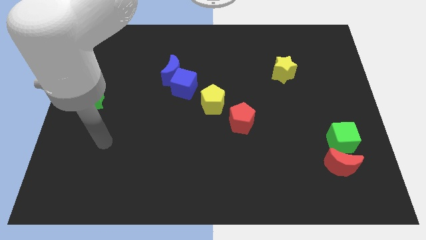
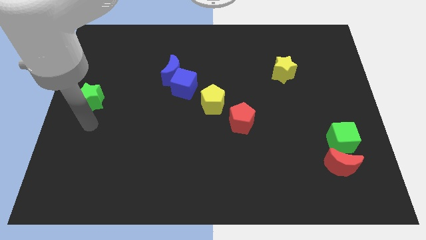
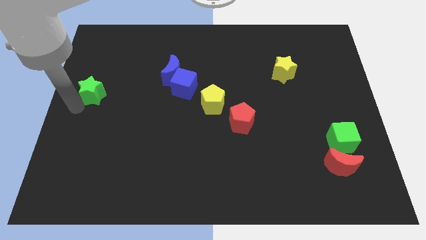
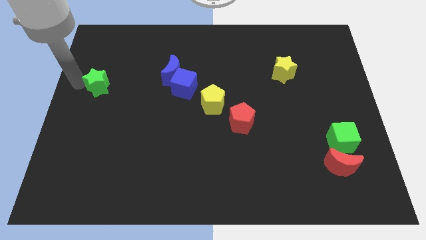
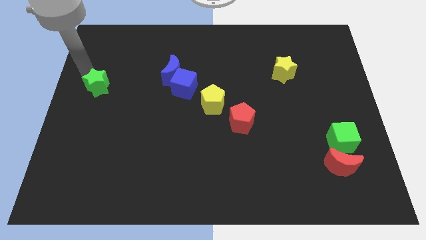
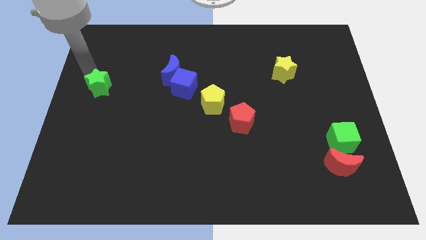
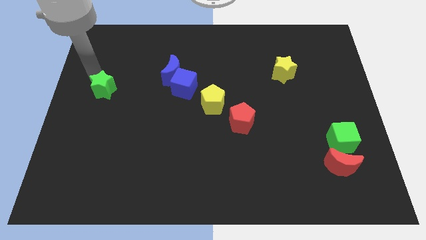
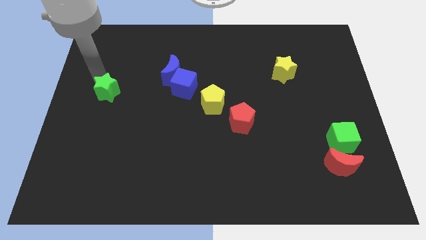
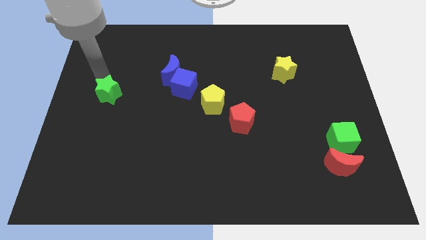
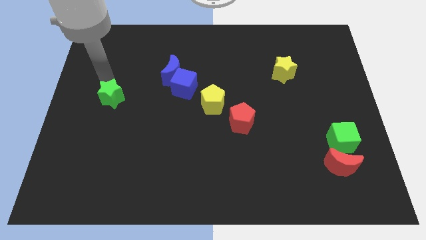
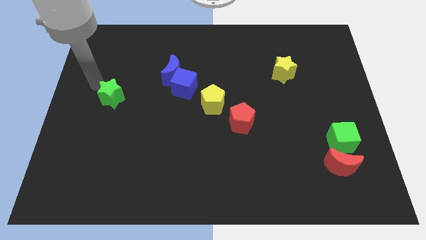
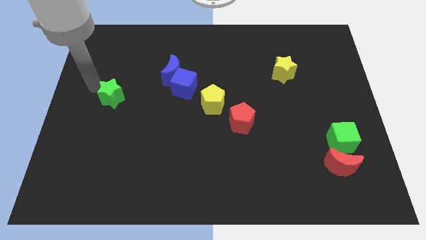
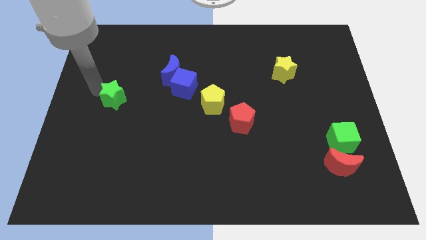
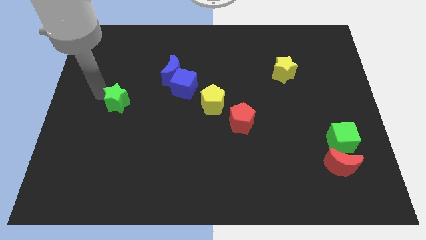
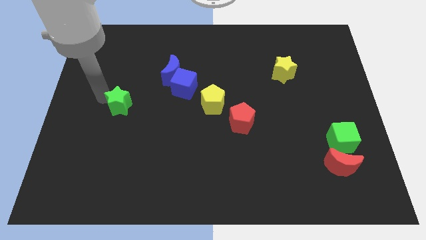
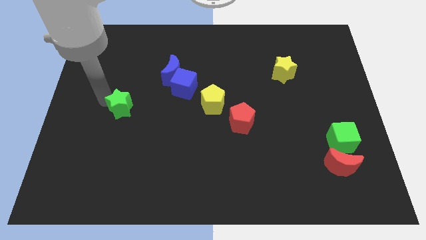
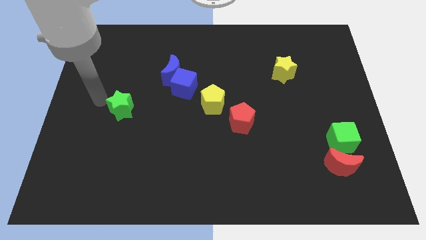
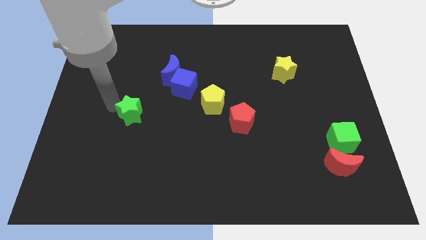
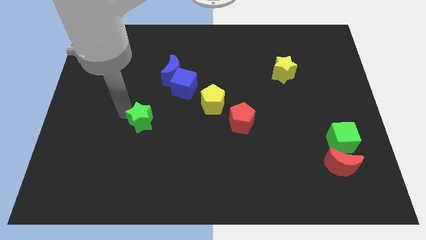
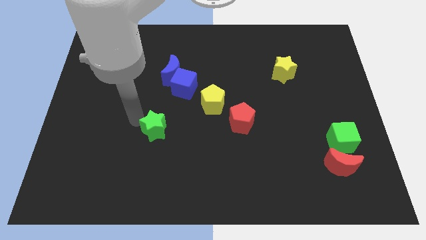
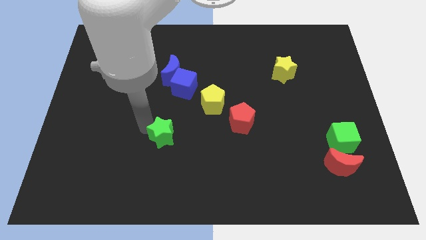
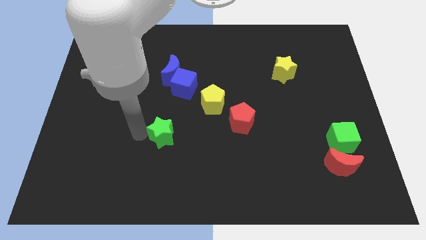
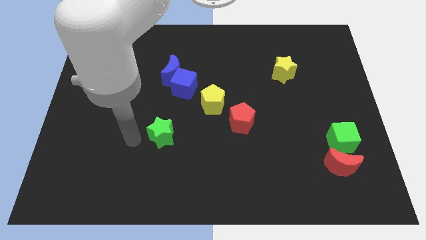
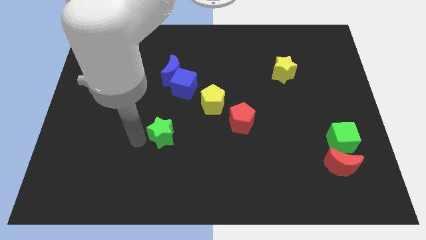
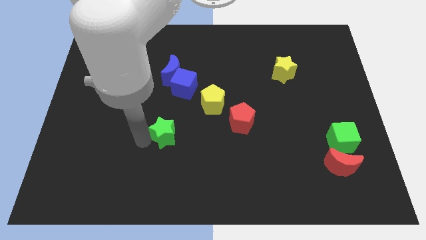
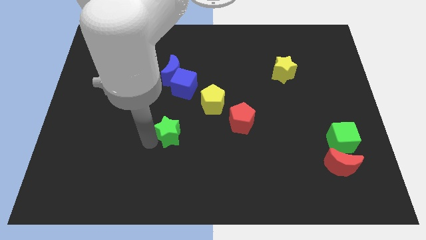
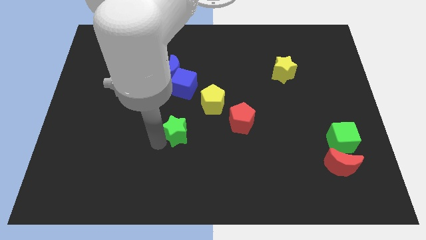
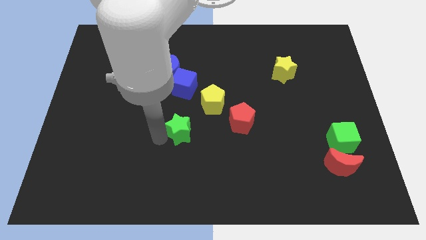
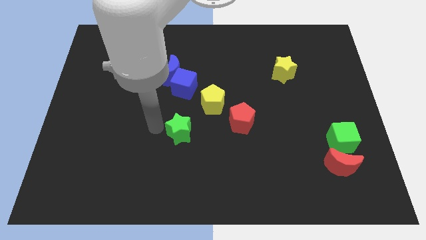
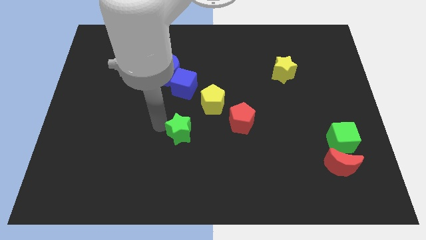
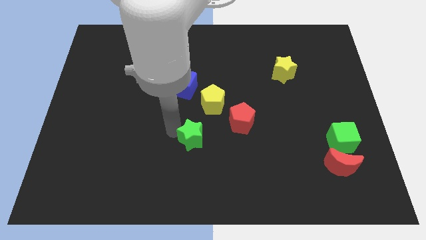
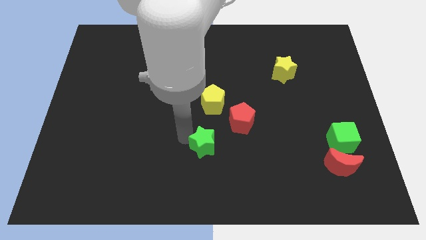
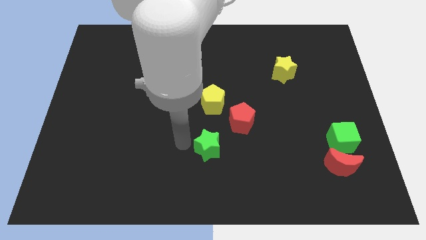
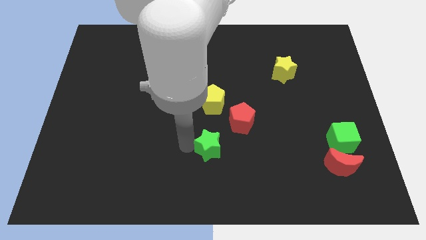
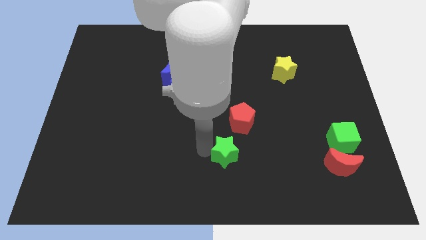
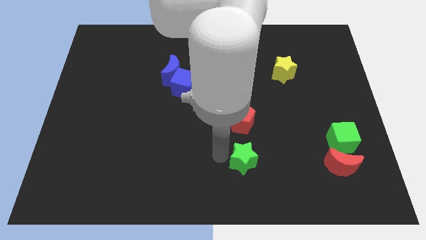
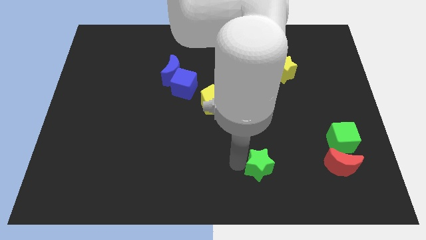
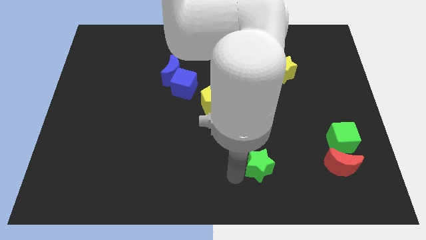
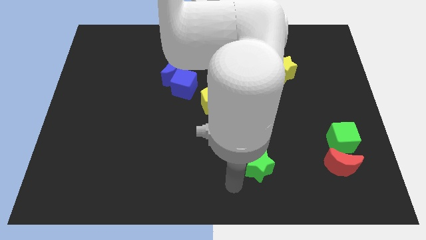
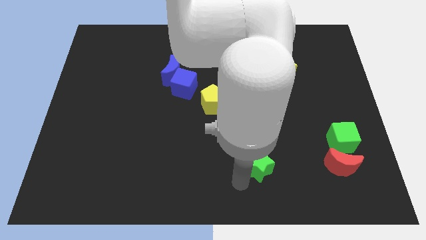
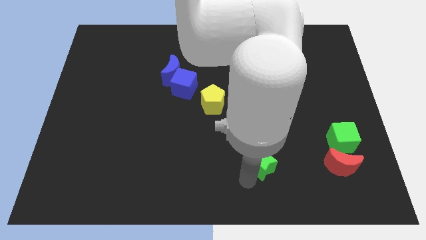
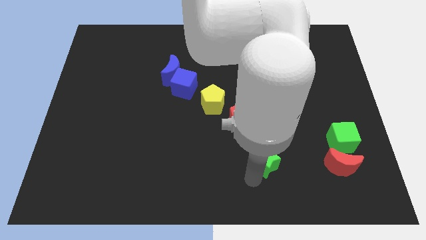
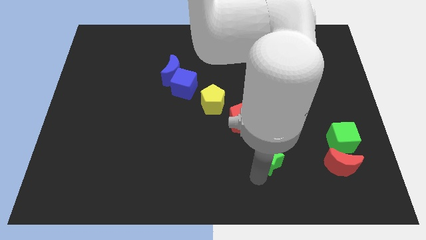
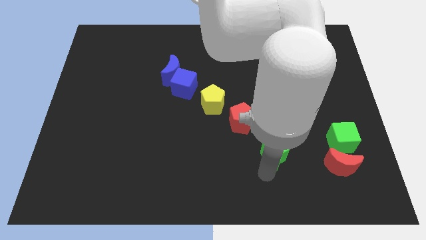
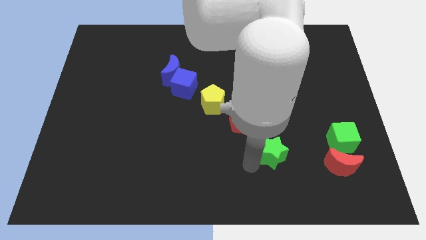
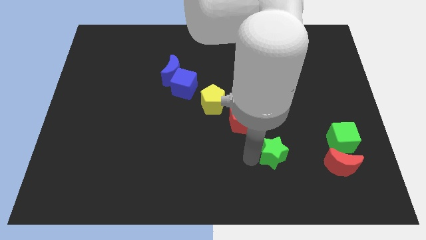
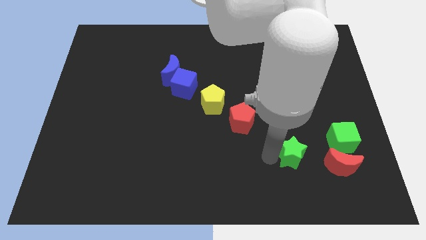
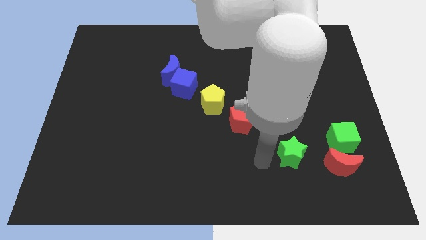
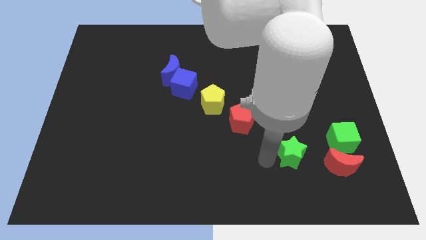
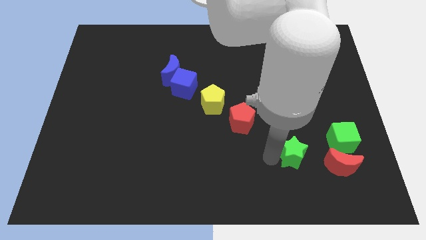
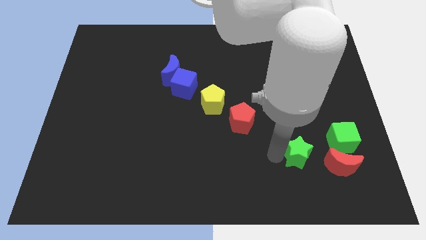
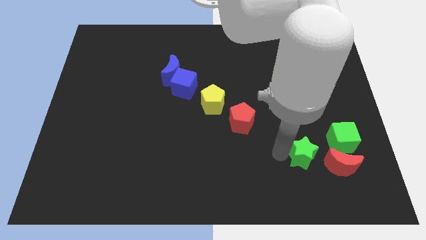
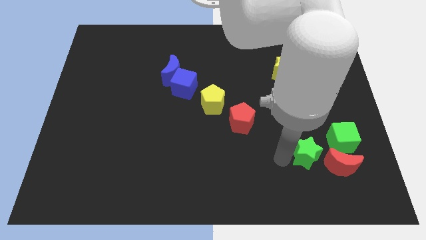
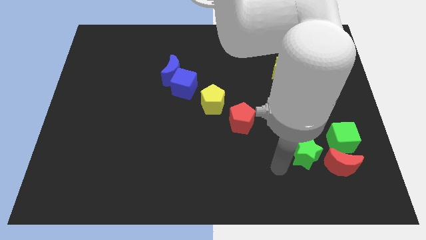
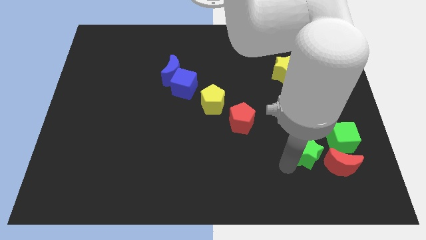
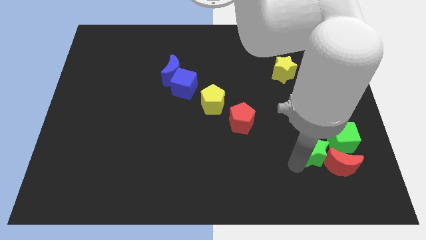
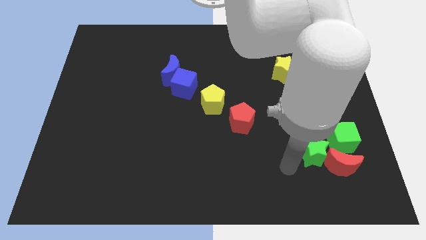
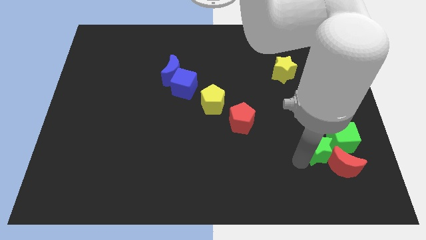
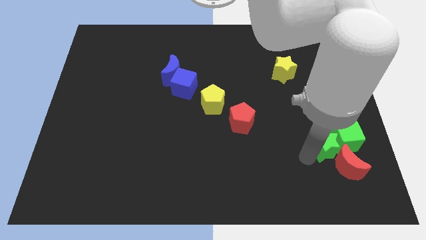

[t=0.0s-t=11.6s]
put the green star towards the green cube
